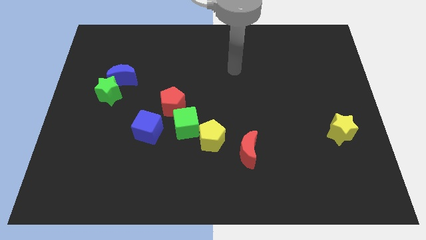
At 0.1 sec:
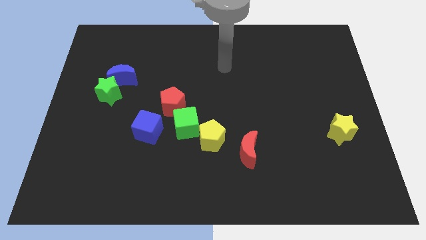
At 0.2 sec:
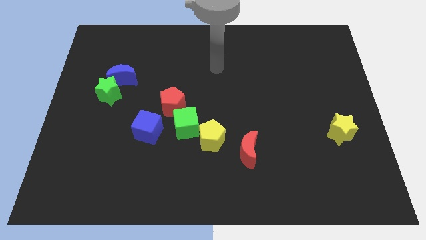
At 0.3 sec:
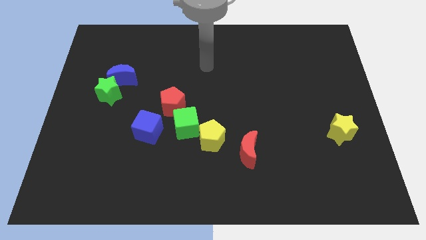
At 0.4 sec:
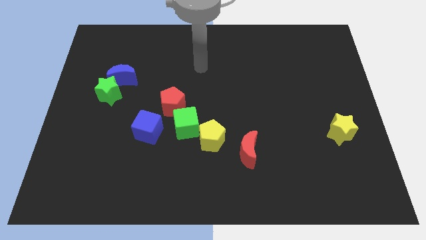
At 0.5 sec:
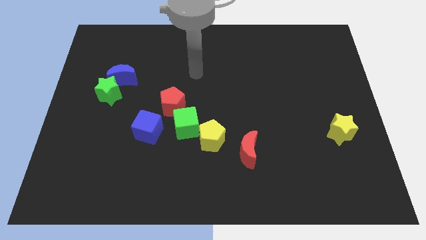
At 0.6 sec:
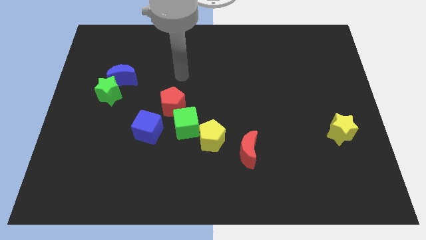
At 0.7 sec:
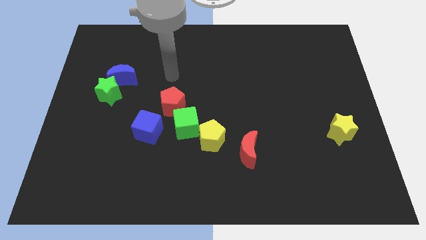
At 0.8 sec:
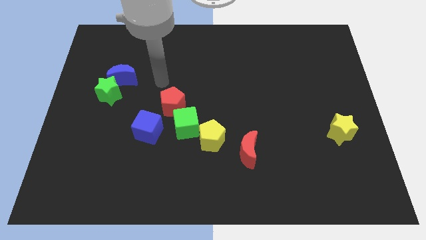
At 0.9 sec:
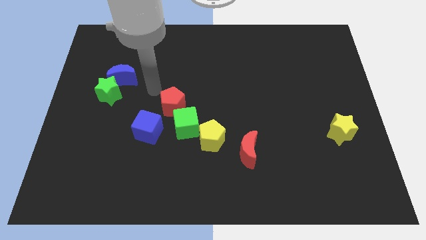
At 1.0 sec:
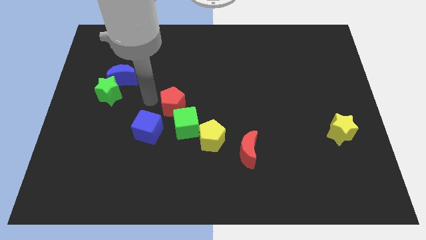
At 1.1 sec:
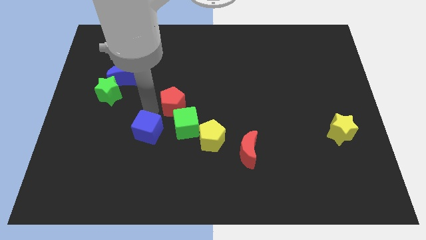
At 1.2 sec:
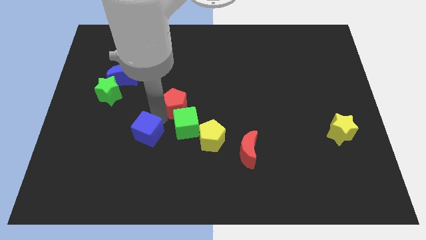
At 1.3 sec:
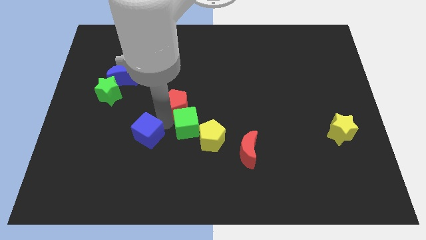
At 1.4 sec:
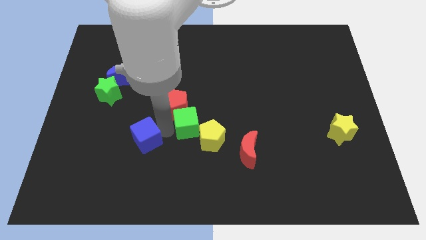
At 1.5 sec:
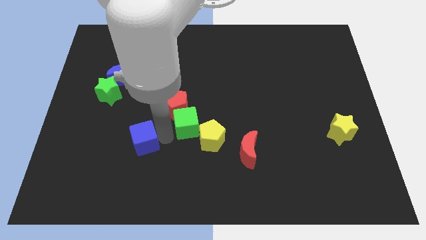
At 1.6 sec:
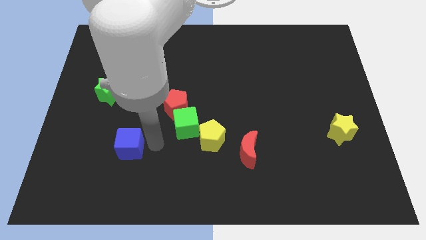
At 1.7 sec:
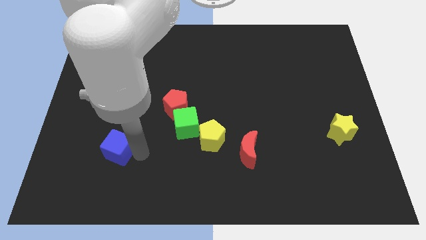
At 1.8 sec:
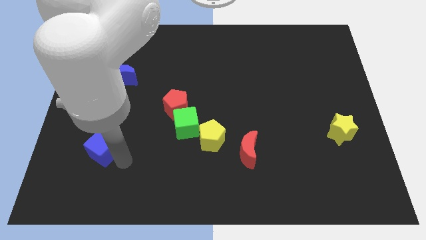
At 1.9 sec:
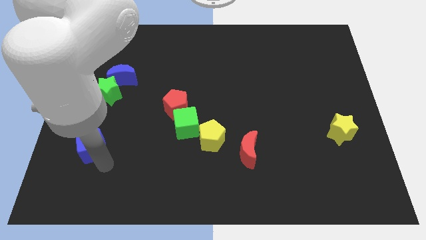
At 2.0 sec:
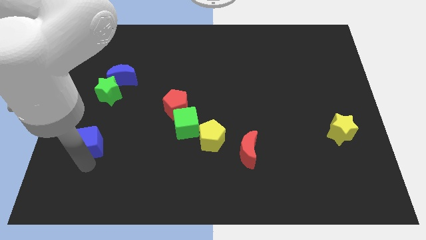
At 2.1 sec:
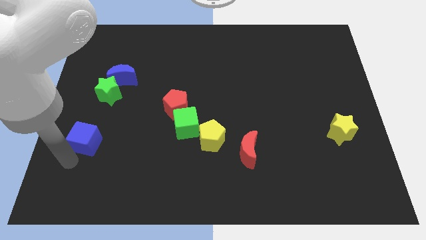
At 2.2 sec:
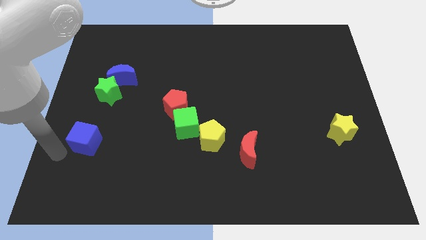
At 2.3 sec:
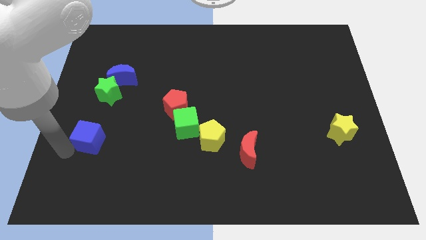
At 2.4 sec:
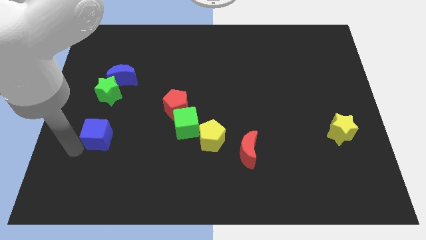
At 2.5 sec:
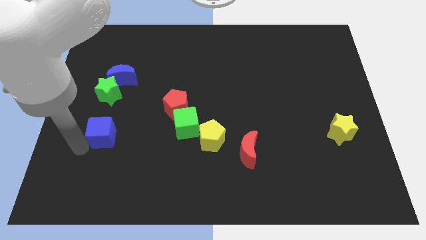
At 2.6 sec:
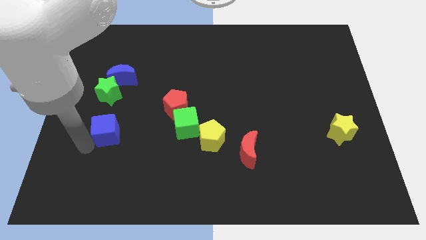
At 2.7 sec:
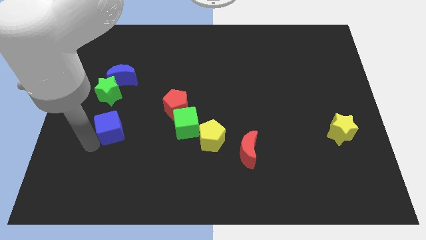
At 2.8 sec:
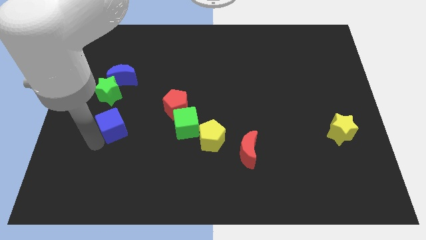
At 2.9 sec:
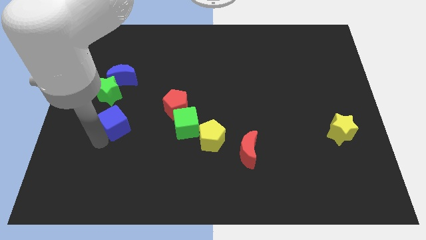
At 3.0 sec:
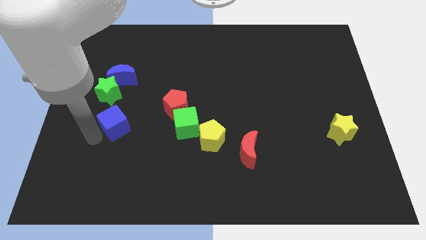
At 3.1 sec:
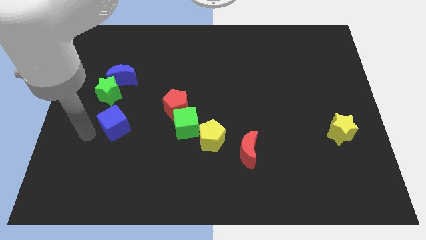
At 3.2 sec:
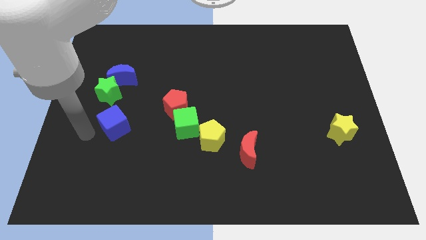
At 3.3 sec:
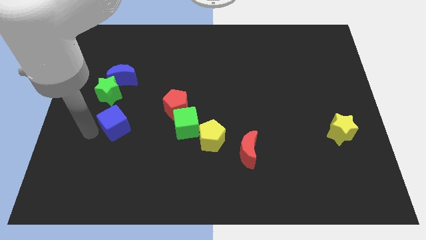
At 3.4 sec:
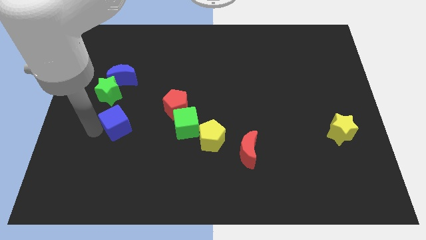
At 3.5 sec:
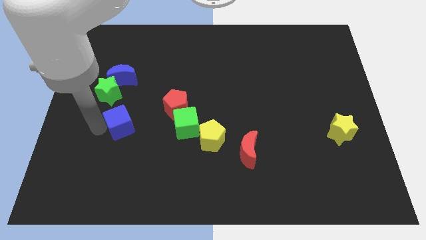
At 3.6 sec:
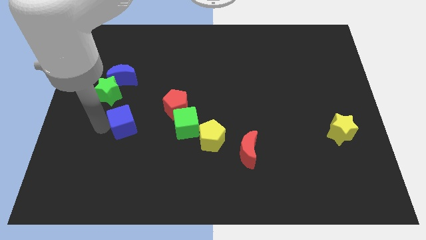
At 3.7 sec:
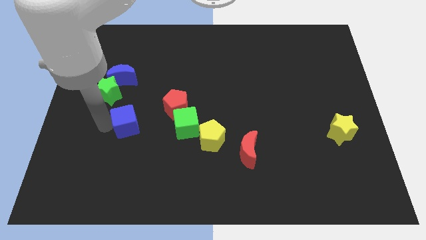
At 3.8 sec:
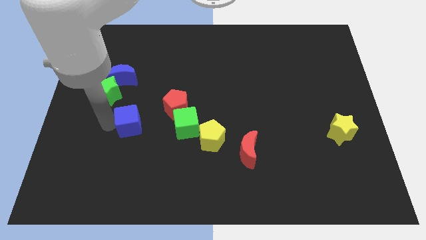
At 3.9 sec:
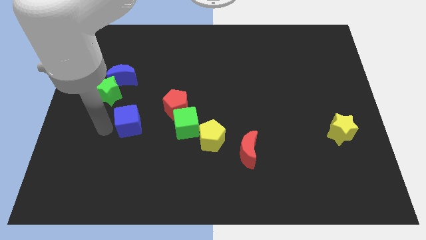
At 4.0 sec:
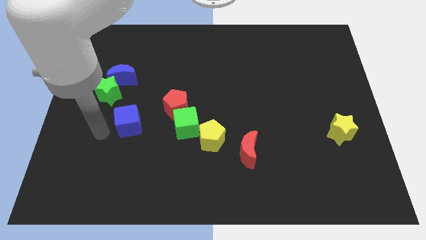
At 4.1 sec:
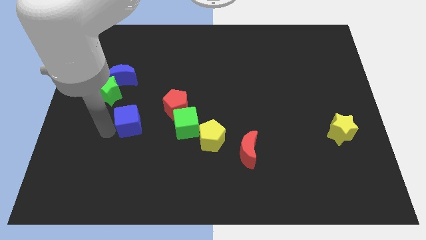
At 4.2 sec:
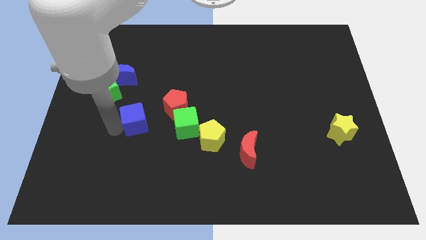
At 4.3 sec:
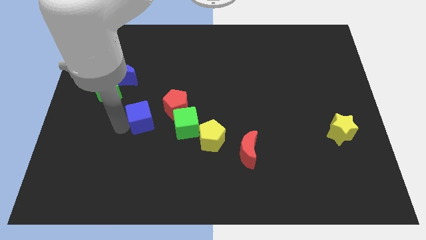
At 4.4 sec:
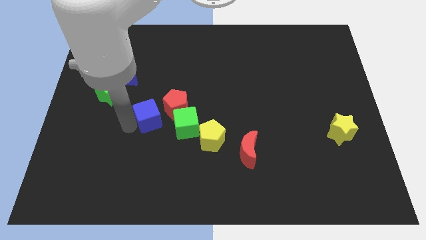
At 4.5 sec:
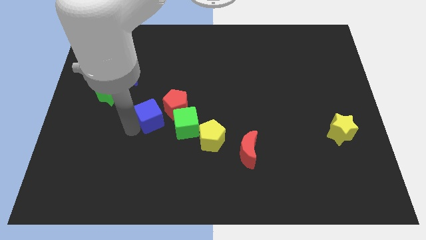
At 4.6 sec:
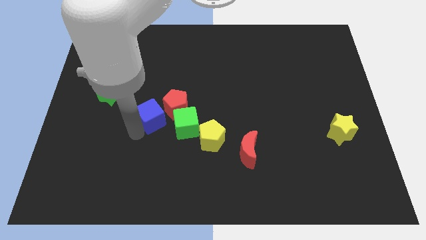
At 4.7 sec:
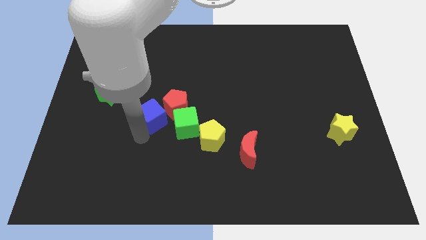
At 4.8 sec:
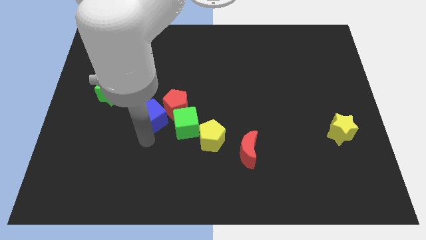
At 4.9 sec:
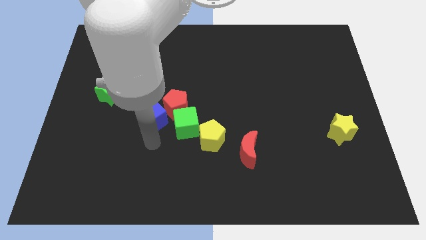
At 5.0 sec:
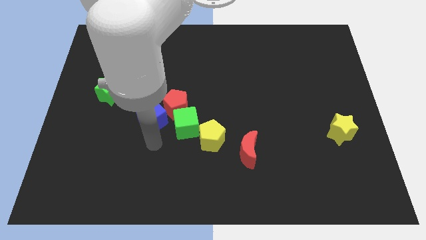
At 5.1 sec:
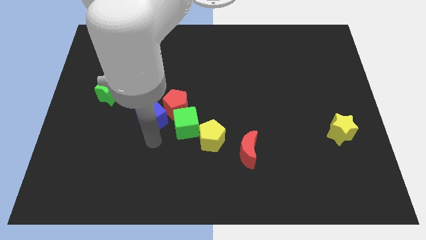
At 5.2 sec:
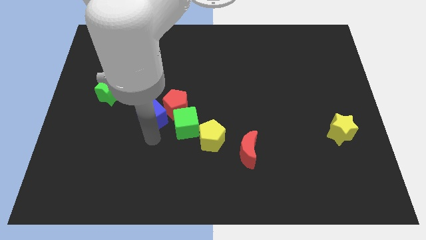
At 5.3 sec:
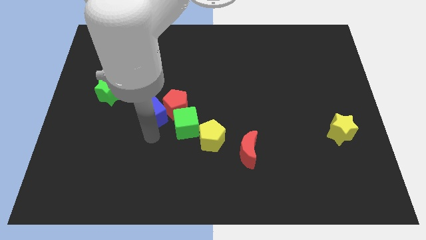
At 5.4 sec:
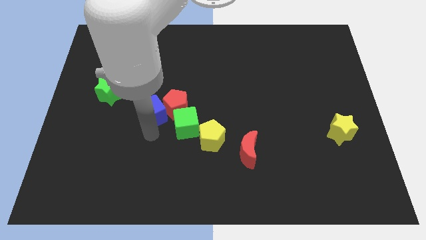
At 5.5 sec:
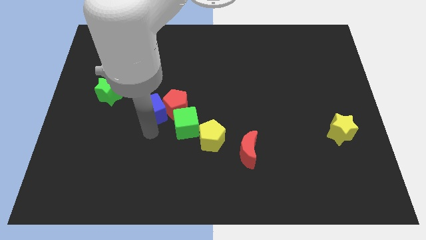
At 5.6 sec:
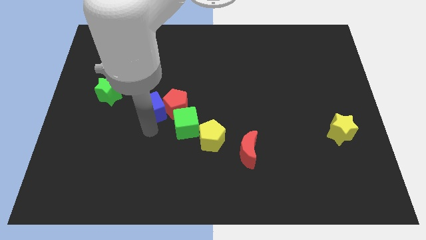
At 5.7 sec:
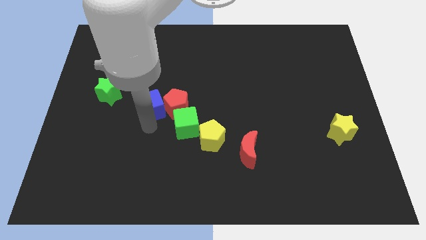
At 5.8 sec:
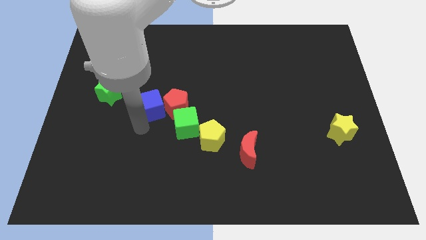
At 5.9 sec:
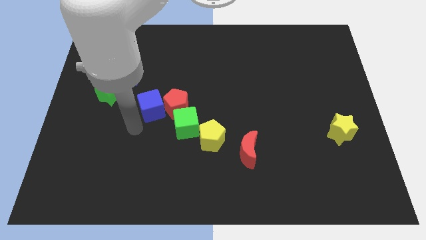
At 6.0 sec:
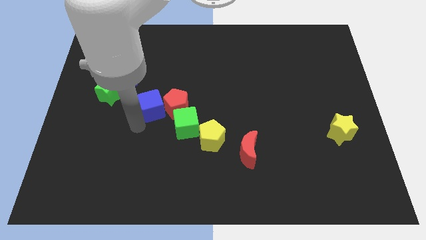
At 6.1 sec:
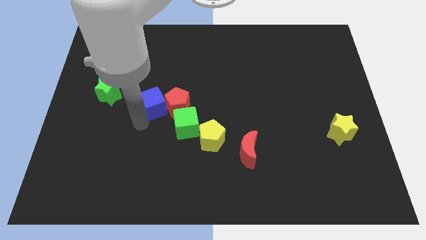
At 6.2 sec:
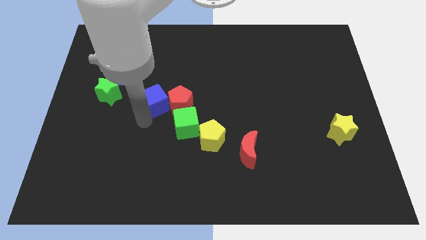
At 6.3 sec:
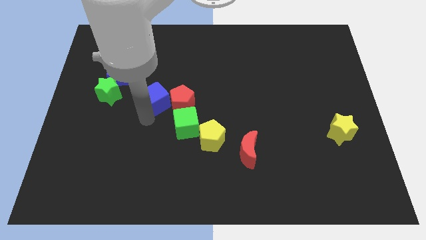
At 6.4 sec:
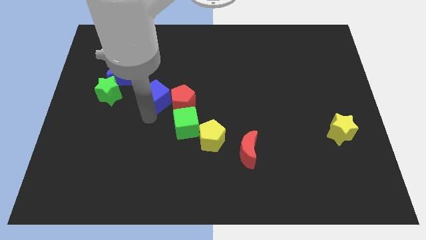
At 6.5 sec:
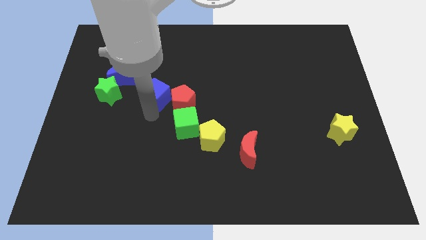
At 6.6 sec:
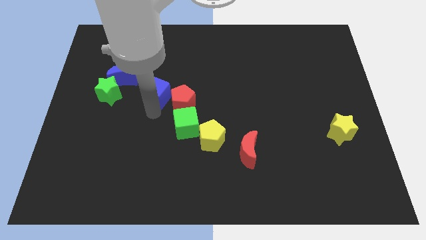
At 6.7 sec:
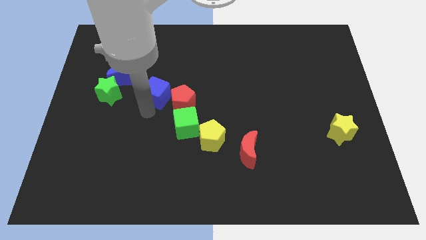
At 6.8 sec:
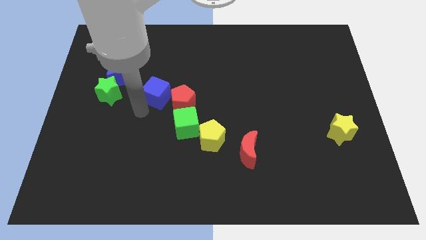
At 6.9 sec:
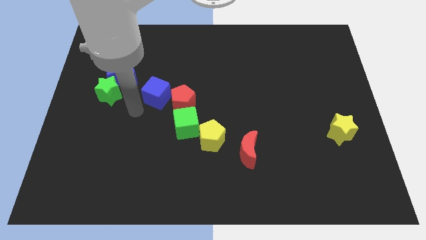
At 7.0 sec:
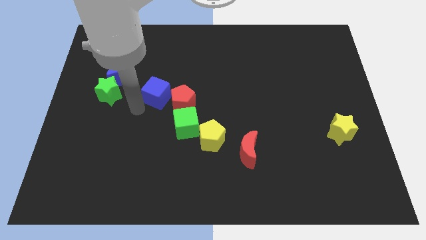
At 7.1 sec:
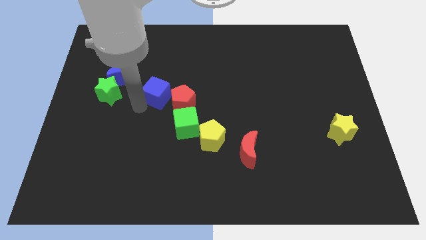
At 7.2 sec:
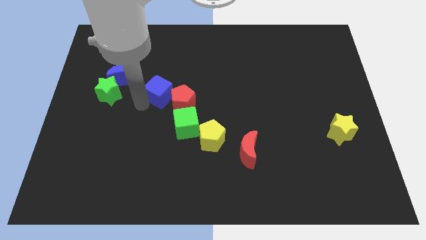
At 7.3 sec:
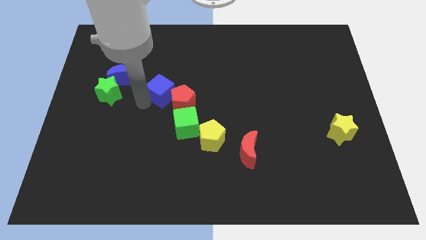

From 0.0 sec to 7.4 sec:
push the blue cube to the center
